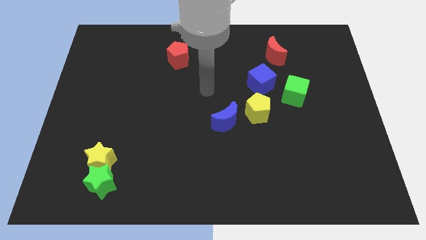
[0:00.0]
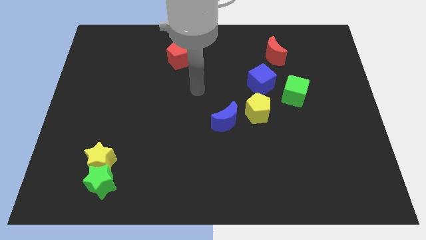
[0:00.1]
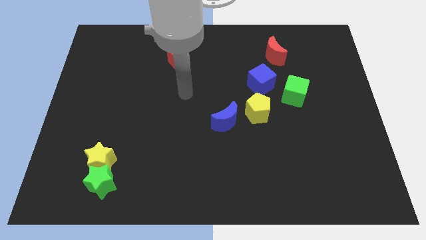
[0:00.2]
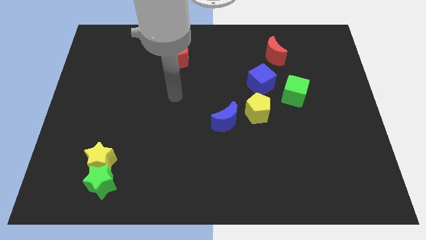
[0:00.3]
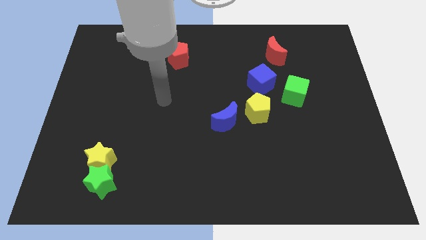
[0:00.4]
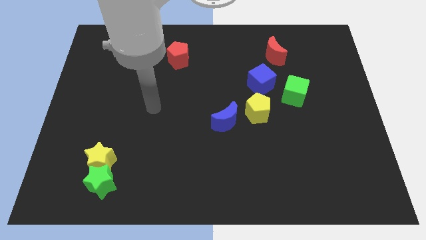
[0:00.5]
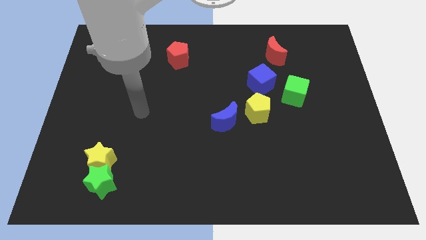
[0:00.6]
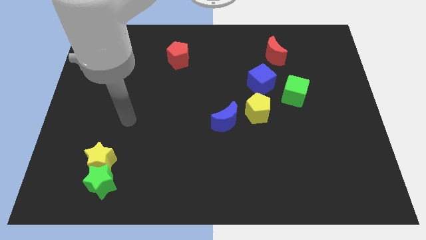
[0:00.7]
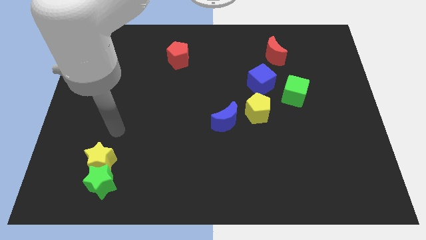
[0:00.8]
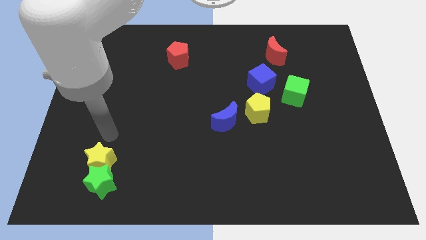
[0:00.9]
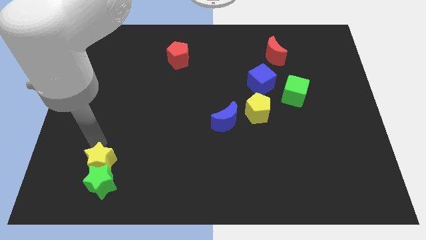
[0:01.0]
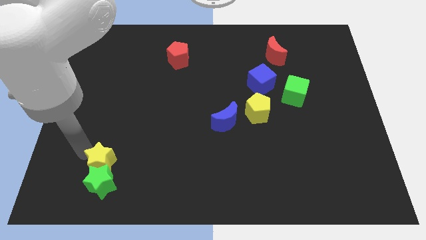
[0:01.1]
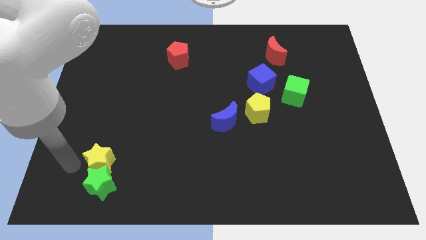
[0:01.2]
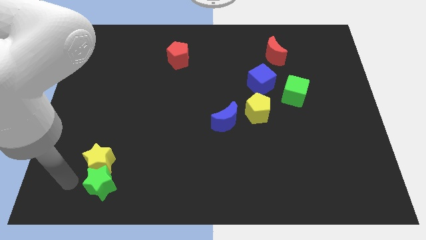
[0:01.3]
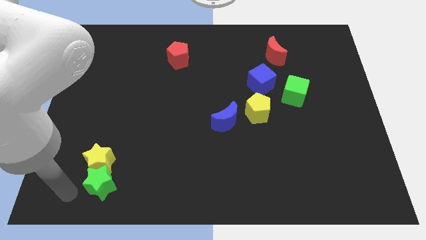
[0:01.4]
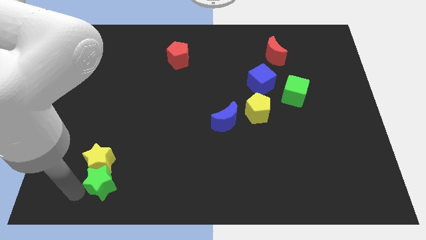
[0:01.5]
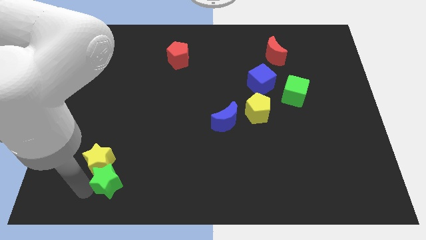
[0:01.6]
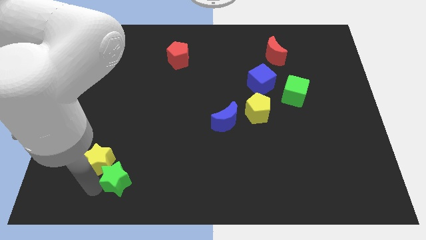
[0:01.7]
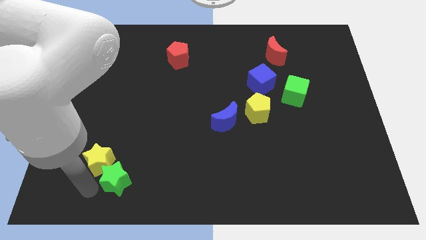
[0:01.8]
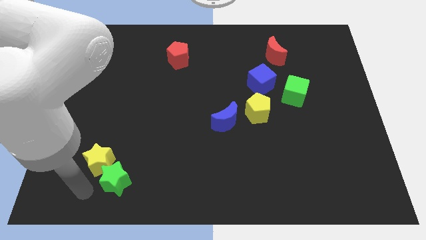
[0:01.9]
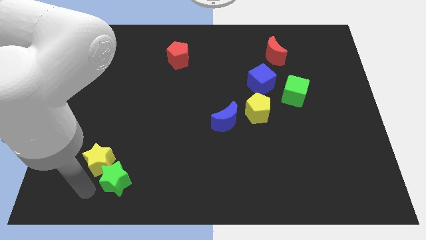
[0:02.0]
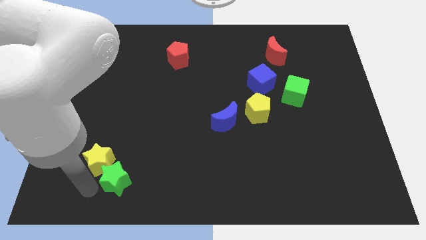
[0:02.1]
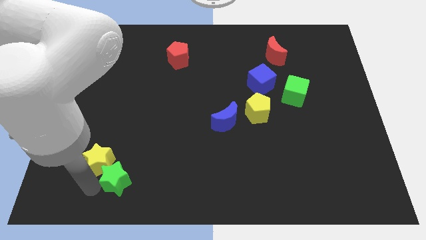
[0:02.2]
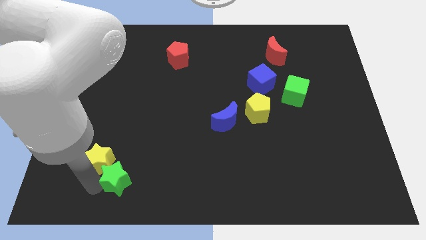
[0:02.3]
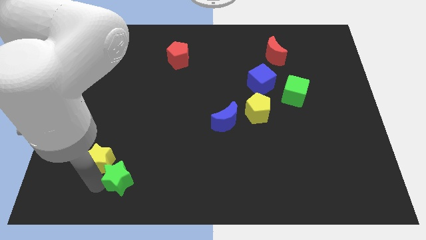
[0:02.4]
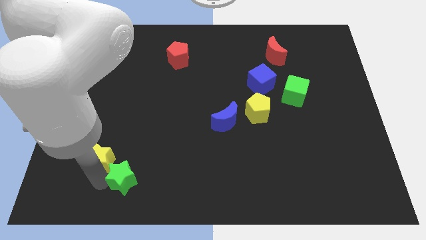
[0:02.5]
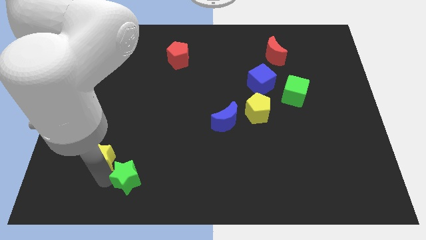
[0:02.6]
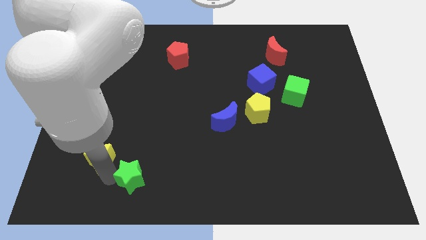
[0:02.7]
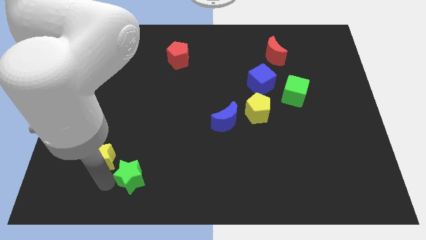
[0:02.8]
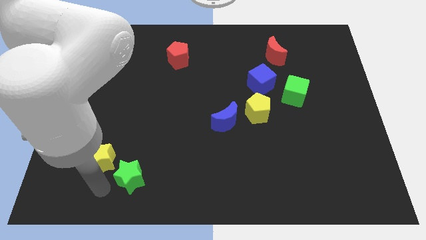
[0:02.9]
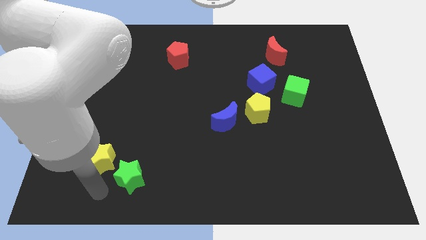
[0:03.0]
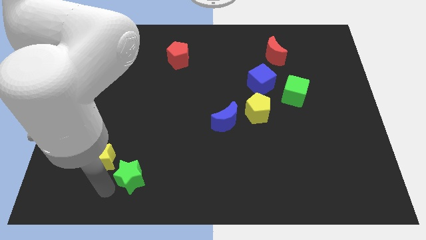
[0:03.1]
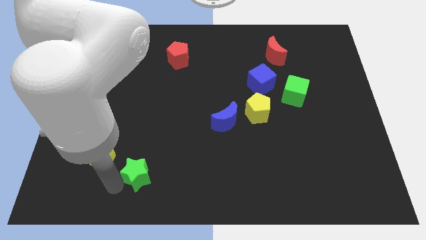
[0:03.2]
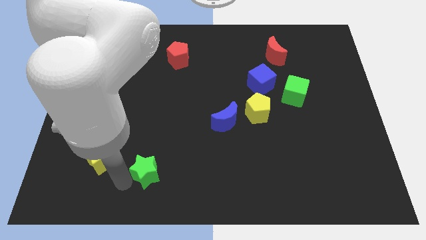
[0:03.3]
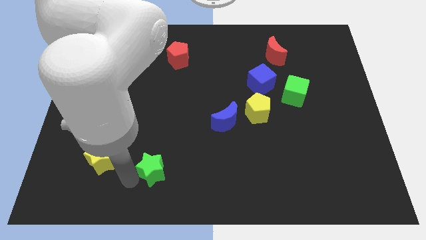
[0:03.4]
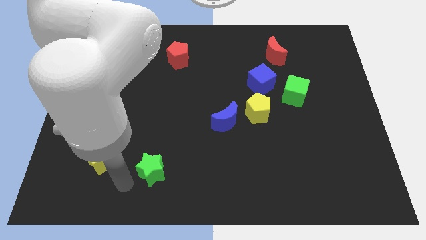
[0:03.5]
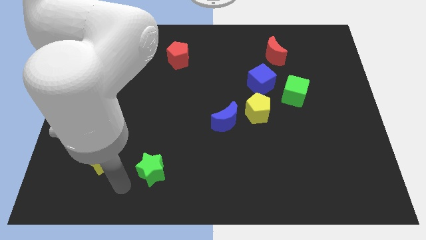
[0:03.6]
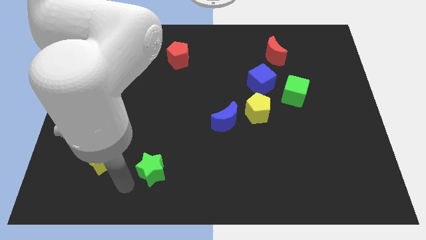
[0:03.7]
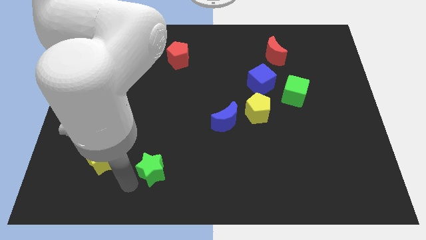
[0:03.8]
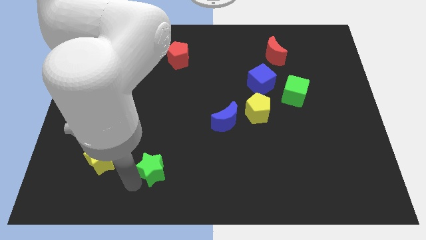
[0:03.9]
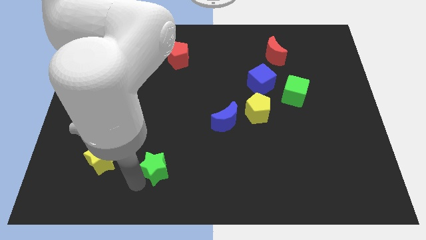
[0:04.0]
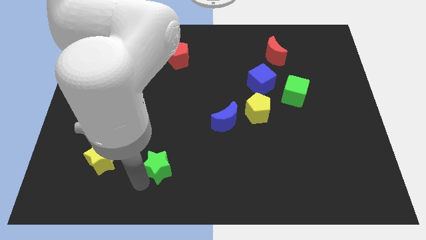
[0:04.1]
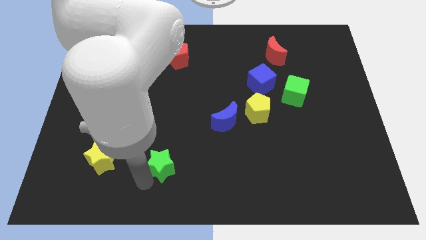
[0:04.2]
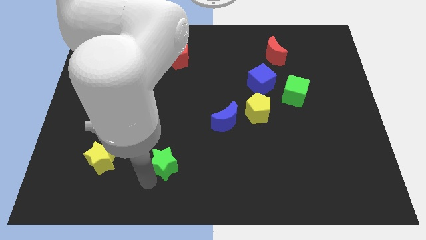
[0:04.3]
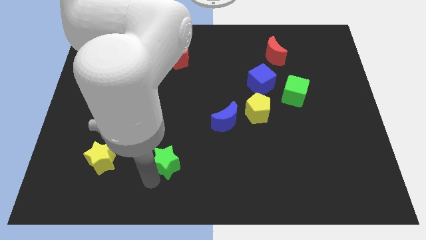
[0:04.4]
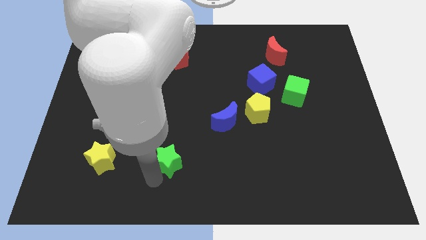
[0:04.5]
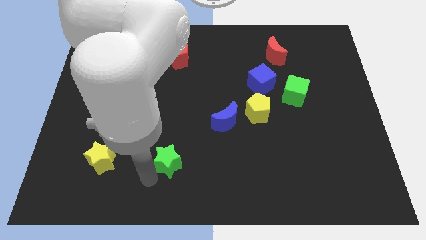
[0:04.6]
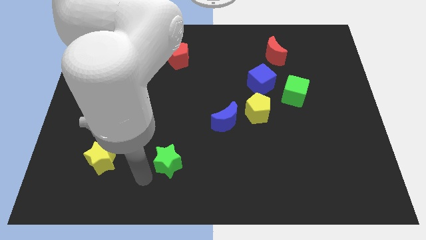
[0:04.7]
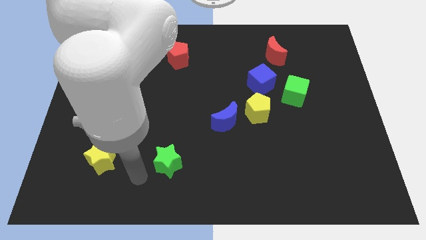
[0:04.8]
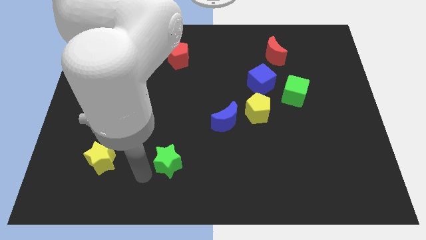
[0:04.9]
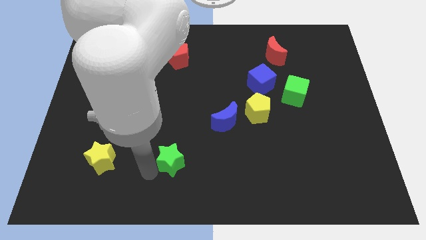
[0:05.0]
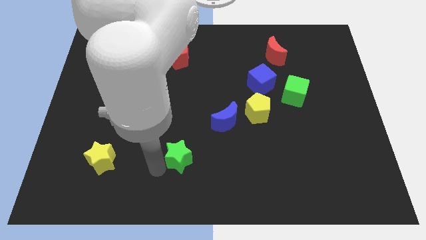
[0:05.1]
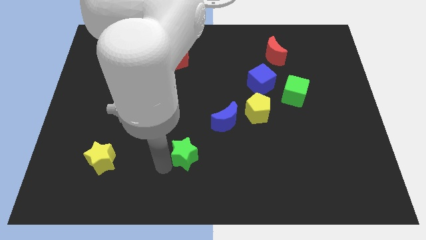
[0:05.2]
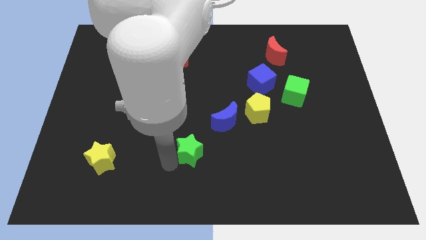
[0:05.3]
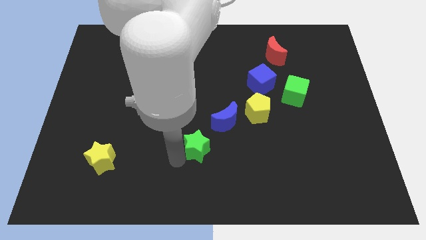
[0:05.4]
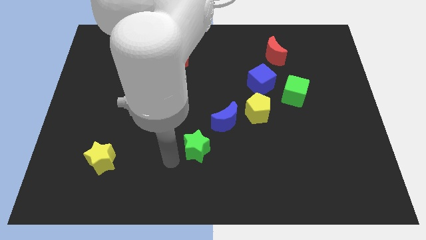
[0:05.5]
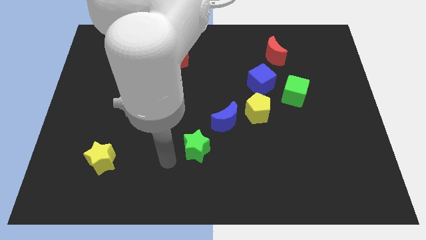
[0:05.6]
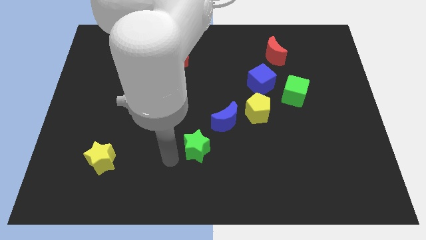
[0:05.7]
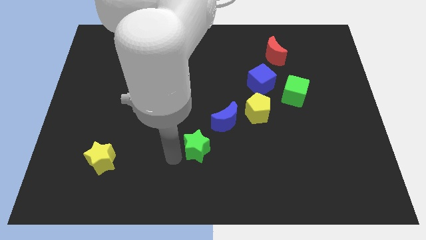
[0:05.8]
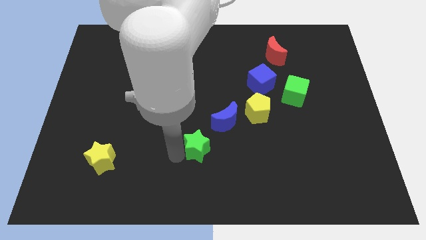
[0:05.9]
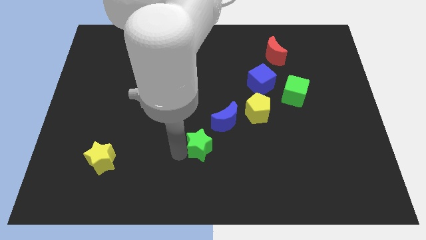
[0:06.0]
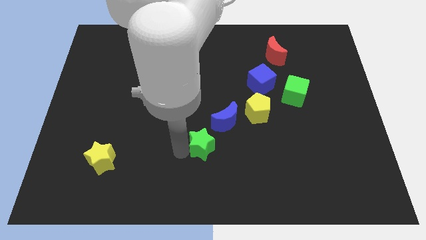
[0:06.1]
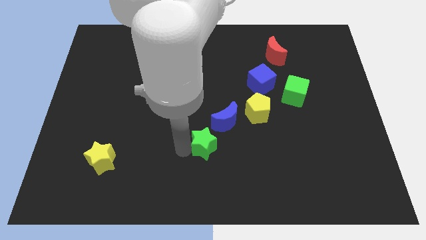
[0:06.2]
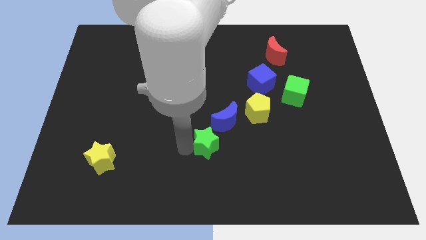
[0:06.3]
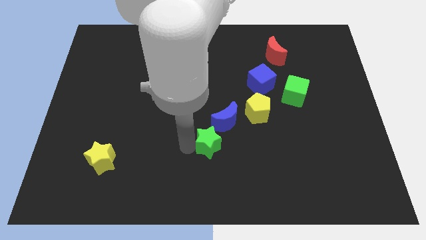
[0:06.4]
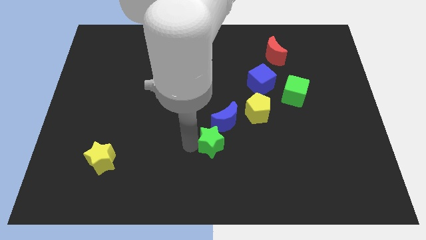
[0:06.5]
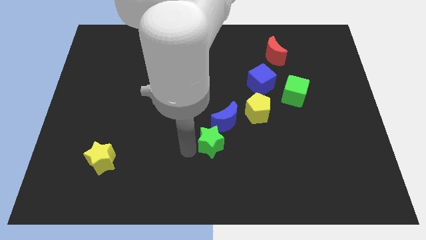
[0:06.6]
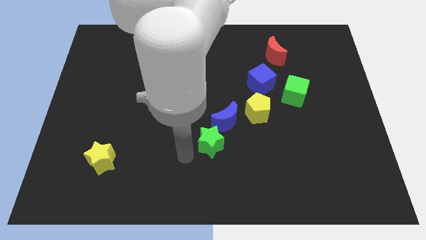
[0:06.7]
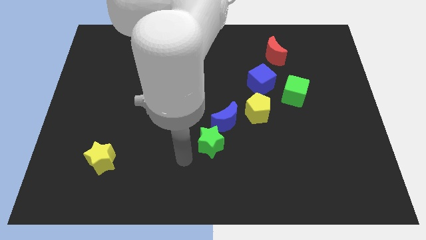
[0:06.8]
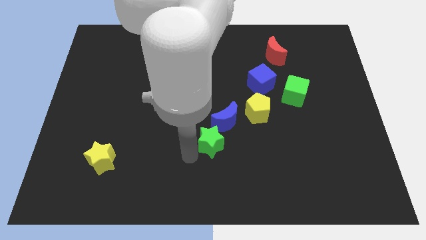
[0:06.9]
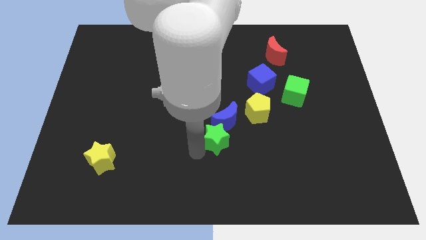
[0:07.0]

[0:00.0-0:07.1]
put the green star diagonally down and to the left of the yellow pentagon
